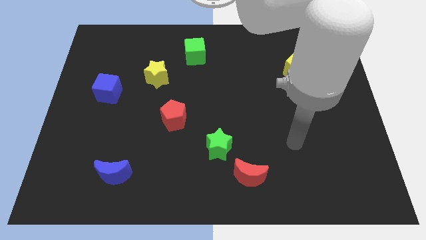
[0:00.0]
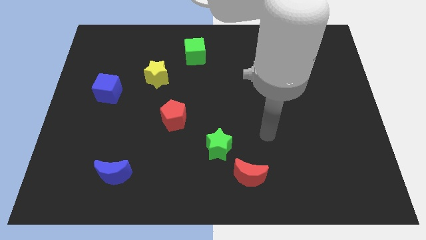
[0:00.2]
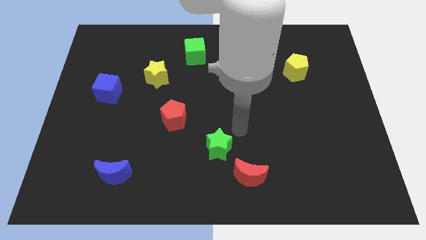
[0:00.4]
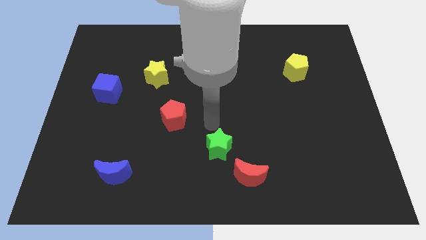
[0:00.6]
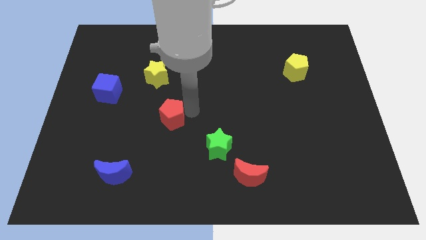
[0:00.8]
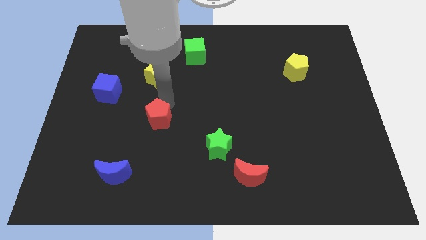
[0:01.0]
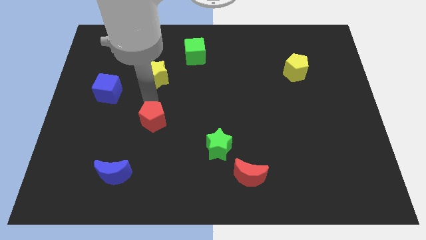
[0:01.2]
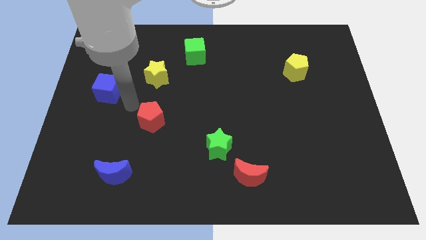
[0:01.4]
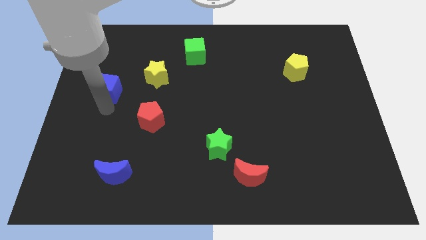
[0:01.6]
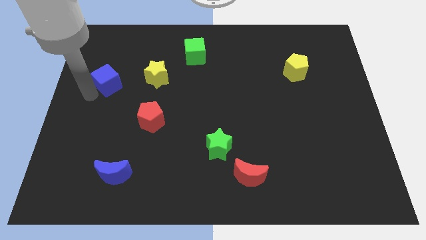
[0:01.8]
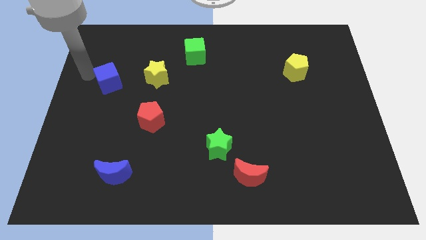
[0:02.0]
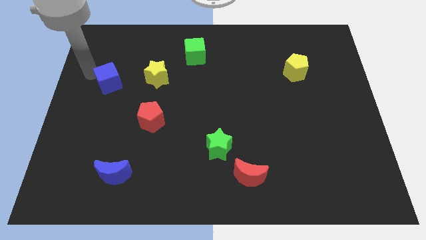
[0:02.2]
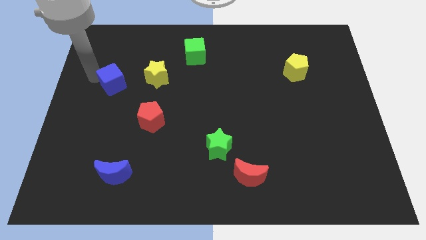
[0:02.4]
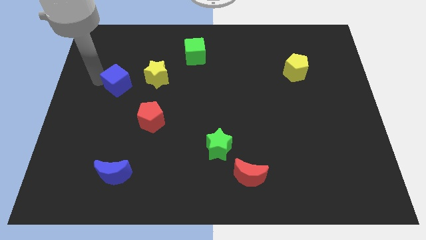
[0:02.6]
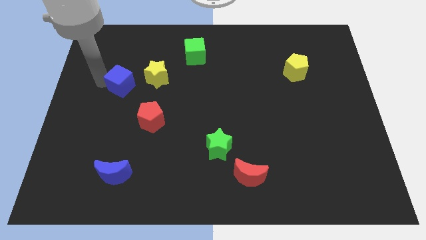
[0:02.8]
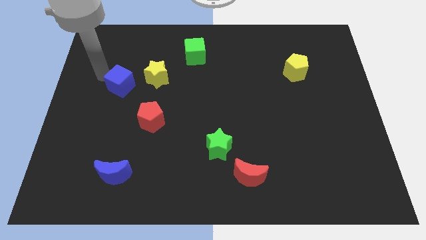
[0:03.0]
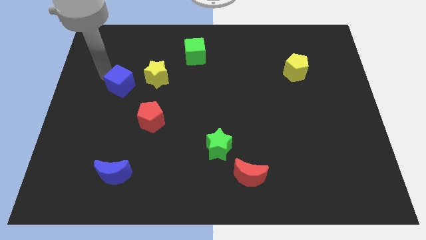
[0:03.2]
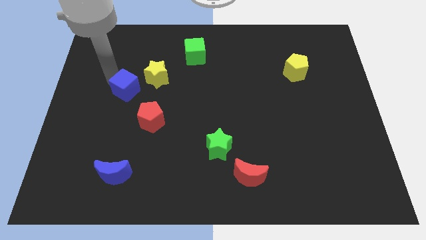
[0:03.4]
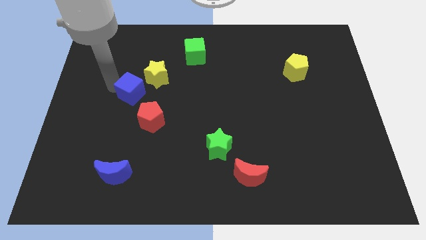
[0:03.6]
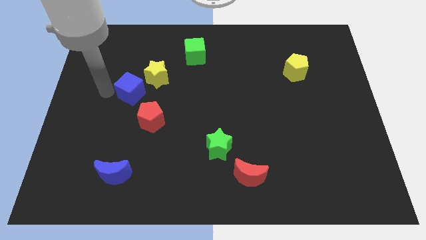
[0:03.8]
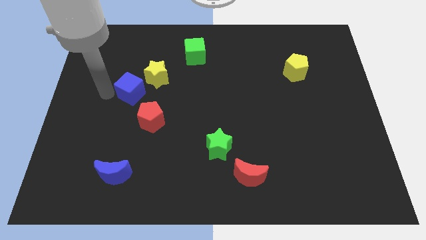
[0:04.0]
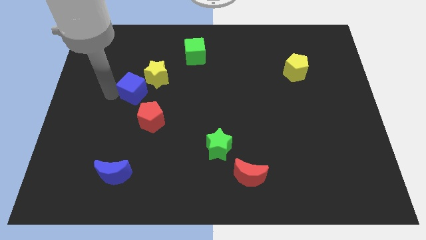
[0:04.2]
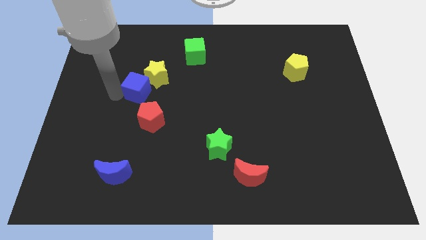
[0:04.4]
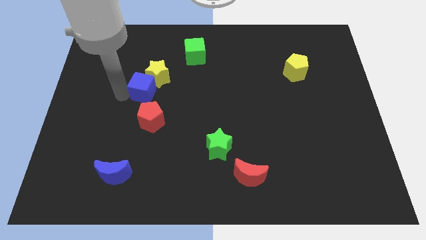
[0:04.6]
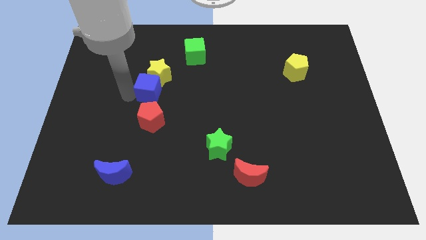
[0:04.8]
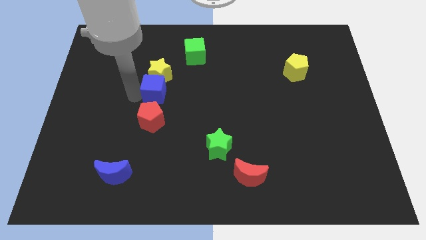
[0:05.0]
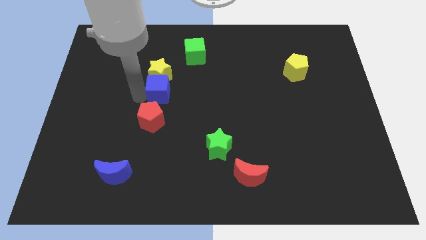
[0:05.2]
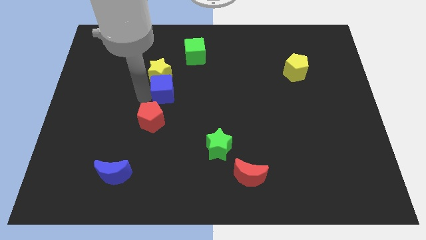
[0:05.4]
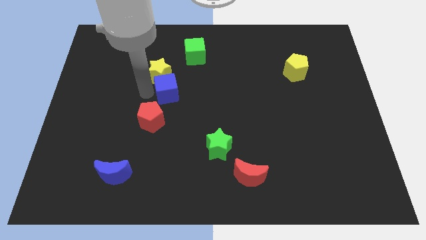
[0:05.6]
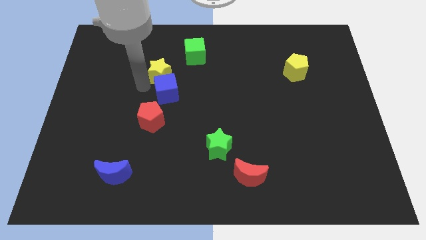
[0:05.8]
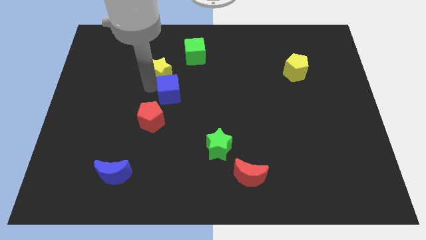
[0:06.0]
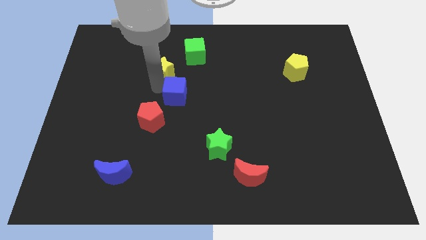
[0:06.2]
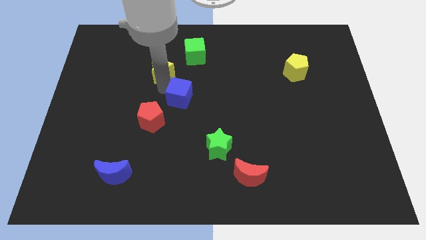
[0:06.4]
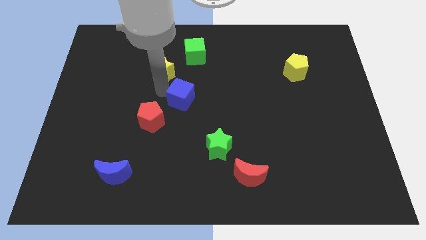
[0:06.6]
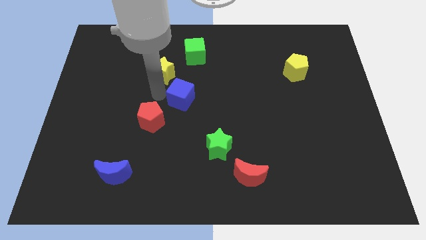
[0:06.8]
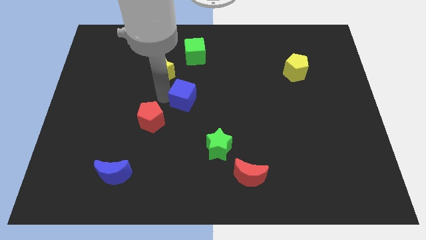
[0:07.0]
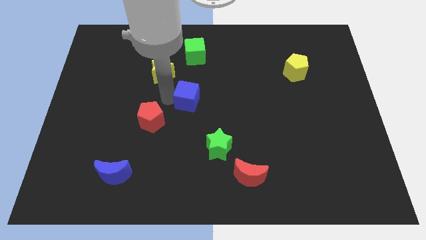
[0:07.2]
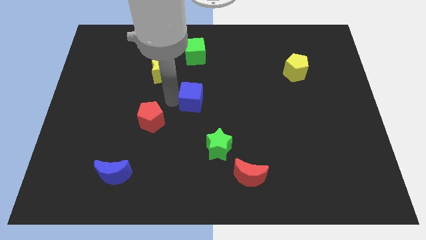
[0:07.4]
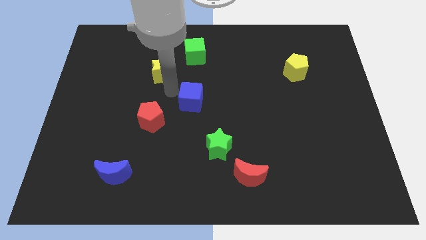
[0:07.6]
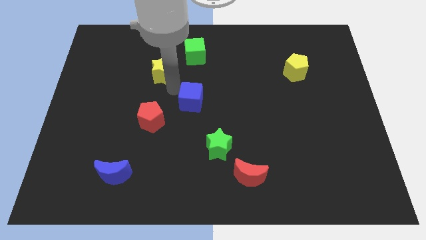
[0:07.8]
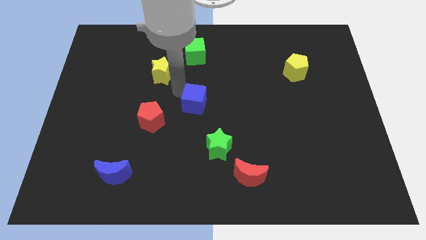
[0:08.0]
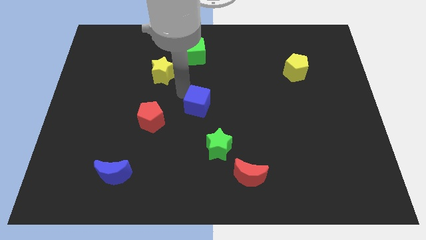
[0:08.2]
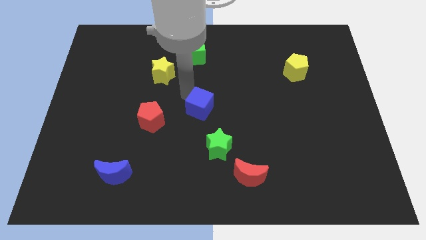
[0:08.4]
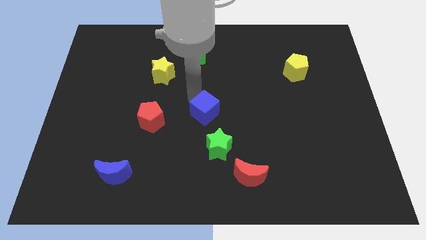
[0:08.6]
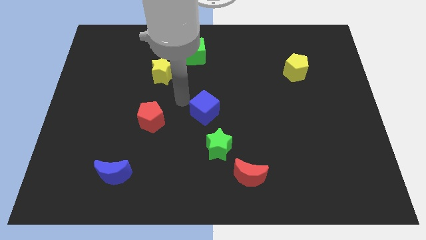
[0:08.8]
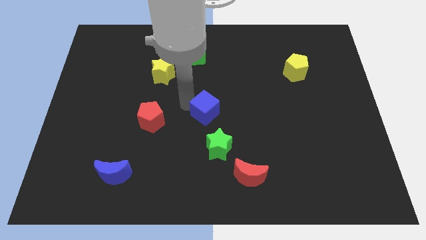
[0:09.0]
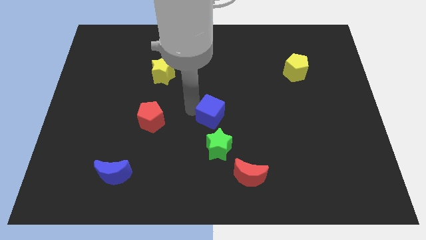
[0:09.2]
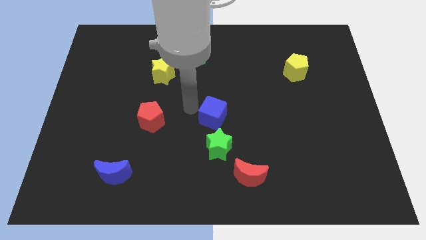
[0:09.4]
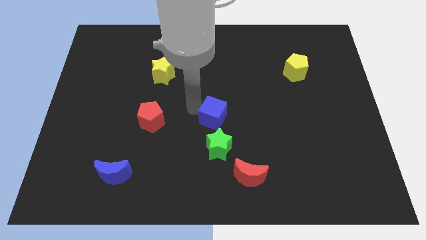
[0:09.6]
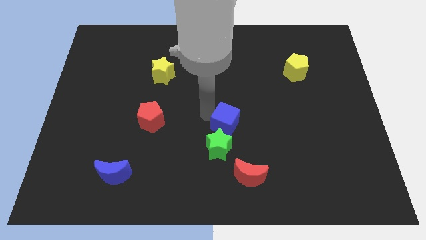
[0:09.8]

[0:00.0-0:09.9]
slide the blue cube to the top right side of the green star

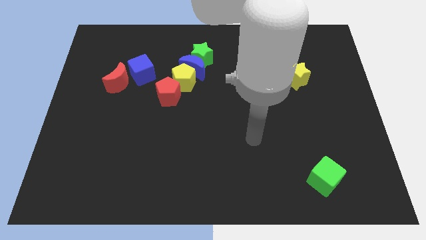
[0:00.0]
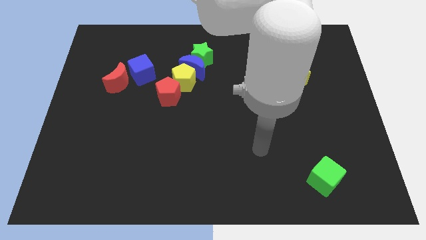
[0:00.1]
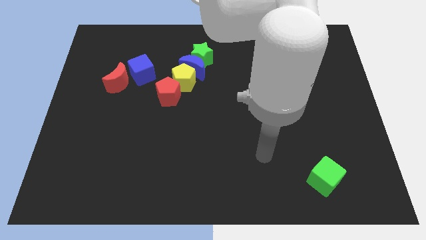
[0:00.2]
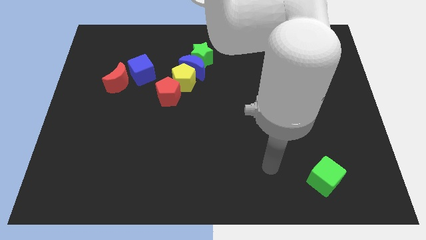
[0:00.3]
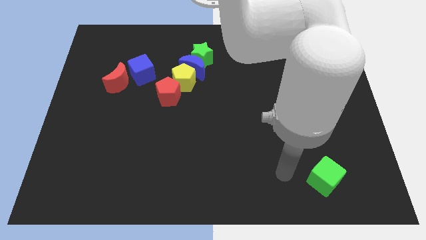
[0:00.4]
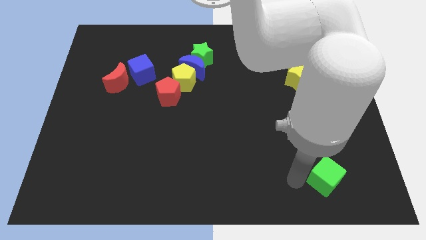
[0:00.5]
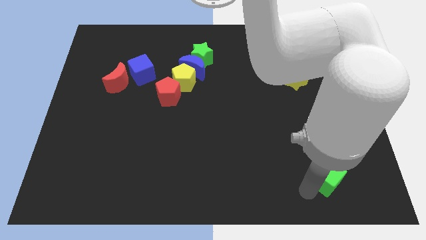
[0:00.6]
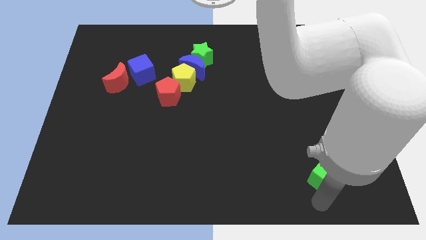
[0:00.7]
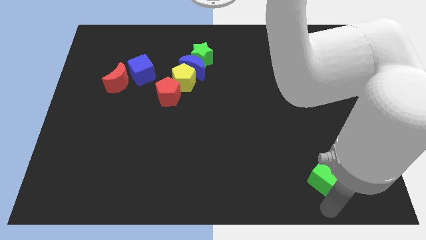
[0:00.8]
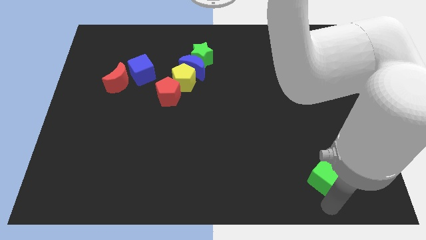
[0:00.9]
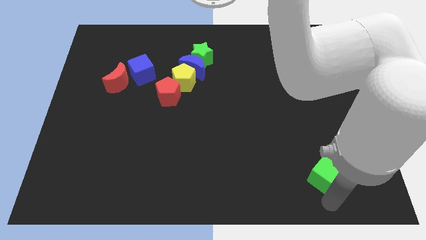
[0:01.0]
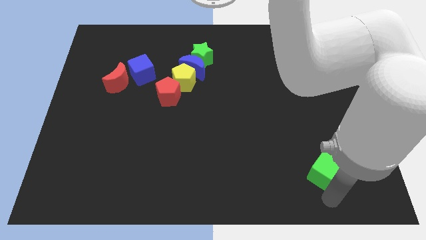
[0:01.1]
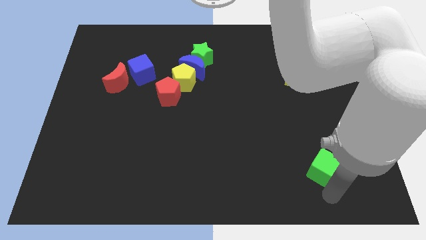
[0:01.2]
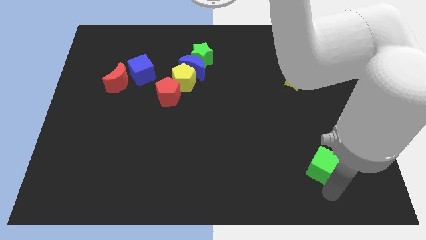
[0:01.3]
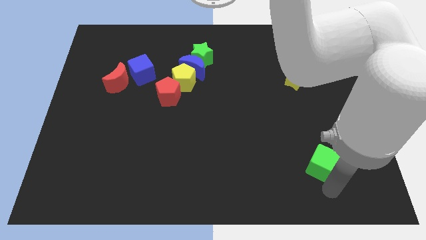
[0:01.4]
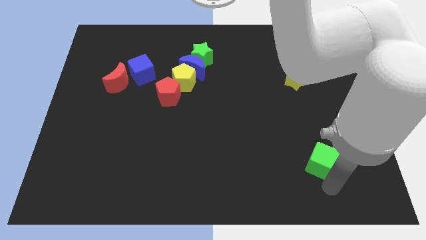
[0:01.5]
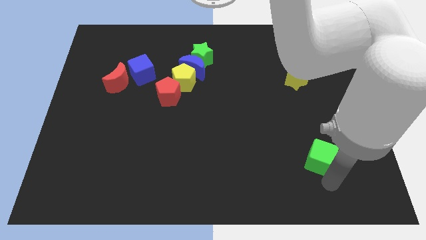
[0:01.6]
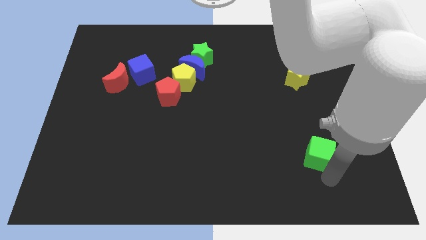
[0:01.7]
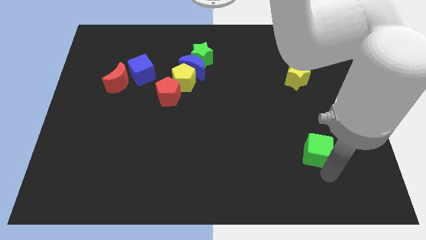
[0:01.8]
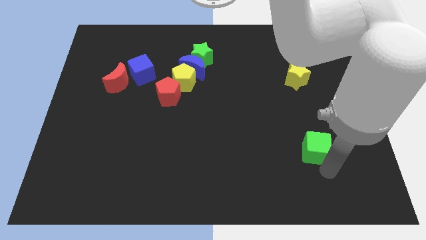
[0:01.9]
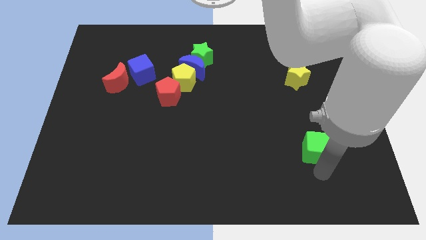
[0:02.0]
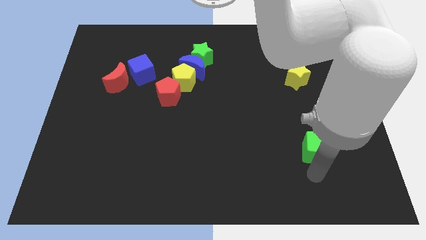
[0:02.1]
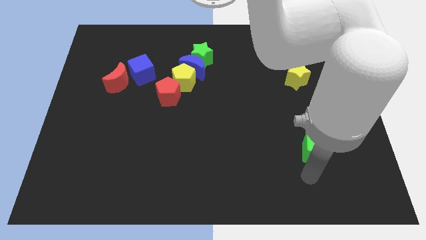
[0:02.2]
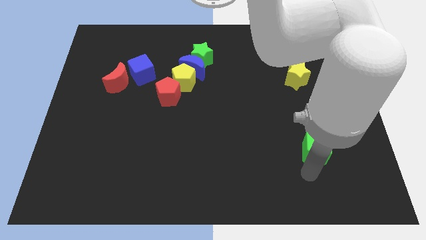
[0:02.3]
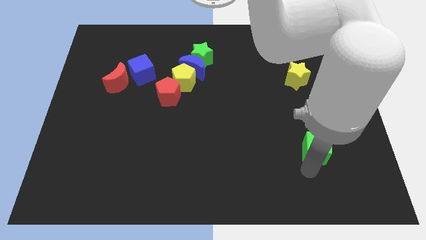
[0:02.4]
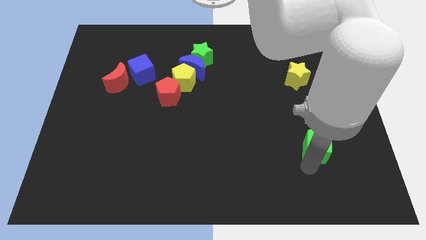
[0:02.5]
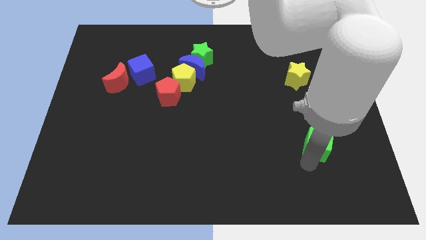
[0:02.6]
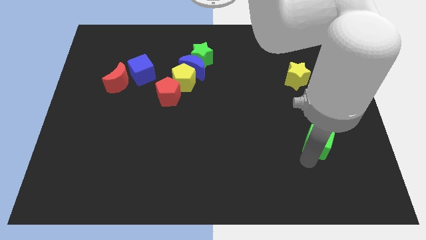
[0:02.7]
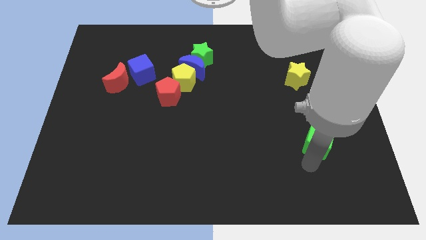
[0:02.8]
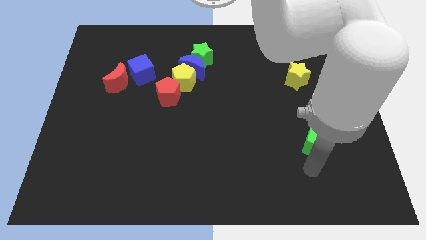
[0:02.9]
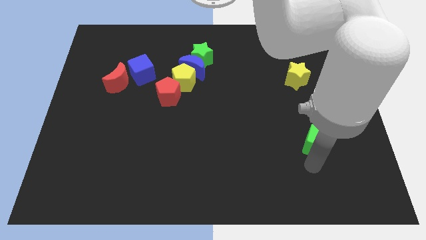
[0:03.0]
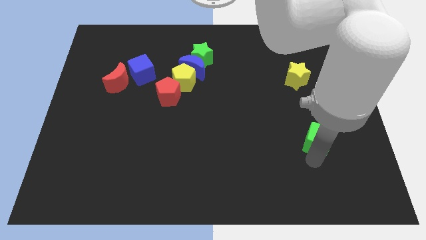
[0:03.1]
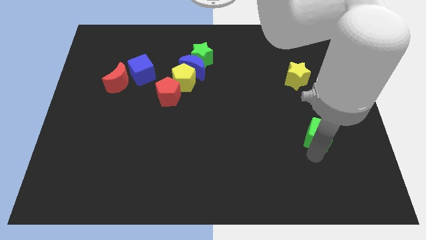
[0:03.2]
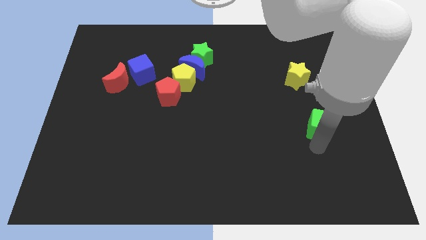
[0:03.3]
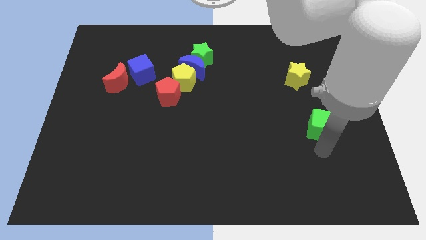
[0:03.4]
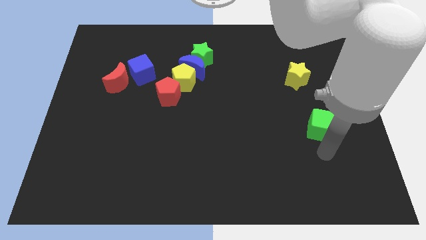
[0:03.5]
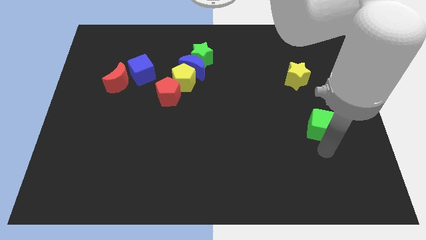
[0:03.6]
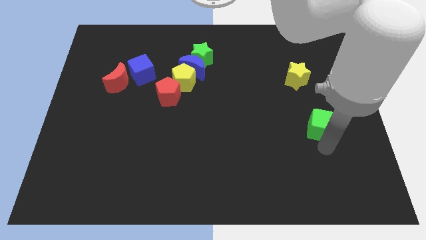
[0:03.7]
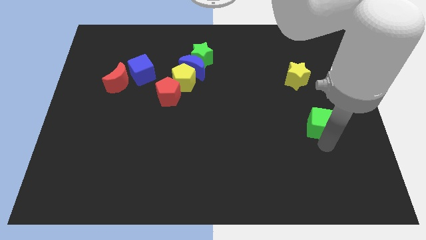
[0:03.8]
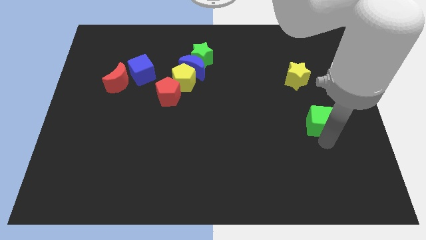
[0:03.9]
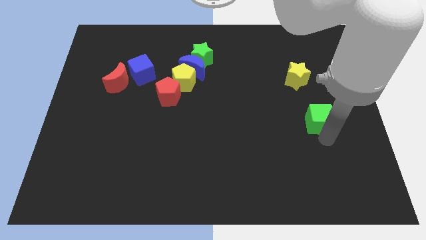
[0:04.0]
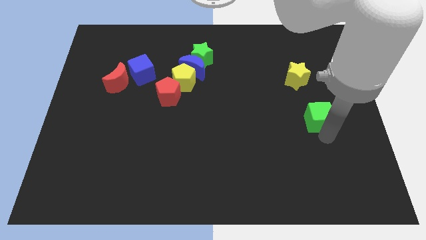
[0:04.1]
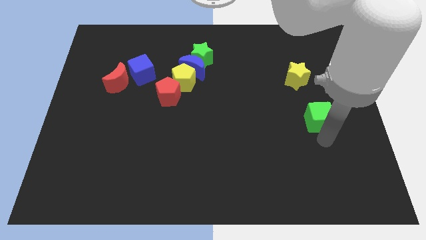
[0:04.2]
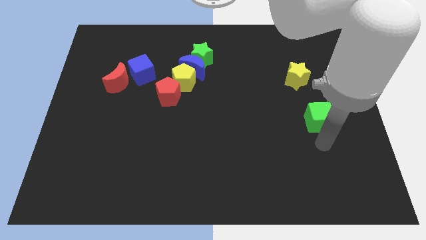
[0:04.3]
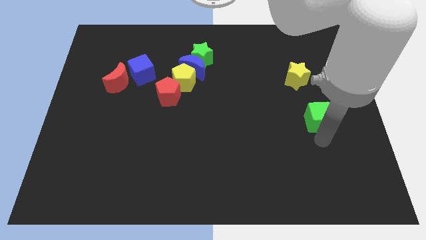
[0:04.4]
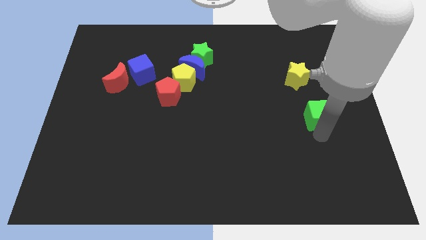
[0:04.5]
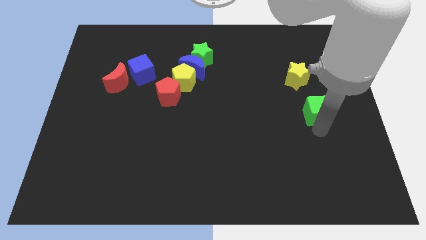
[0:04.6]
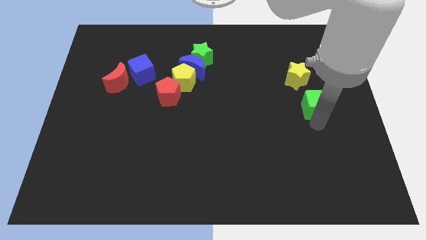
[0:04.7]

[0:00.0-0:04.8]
push the green cube to the bottom right side of the yellow star
